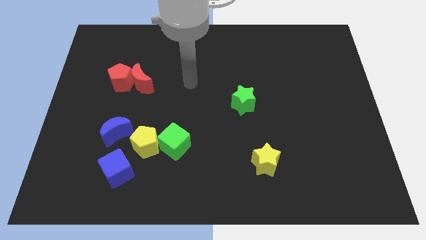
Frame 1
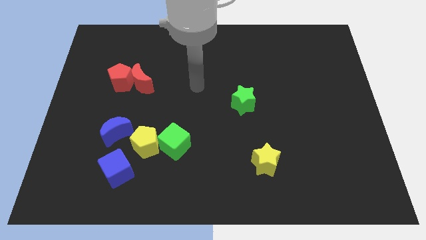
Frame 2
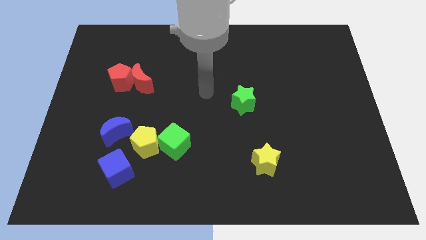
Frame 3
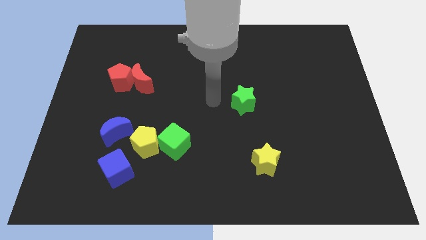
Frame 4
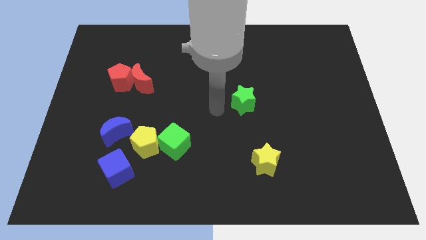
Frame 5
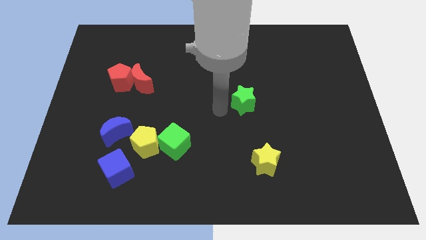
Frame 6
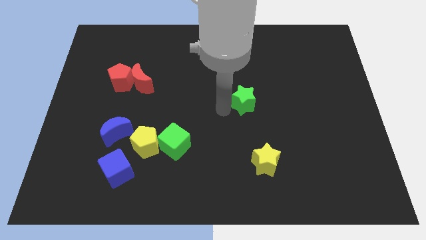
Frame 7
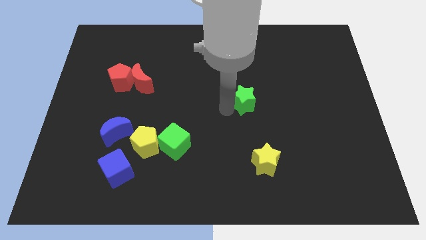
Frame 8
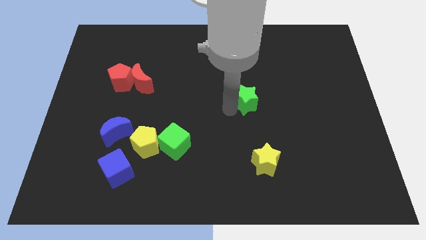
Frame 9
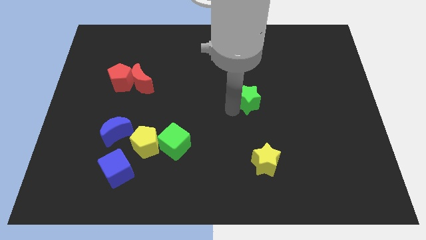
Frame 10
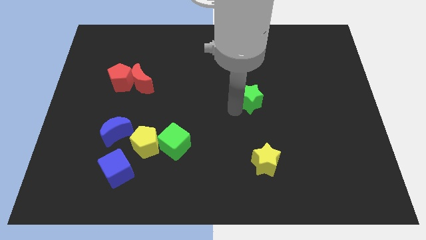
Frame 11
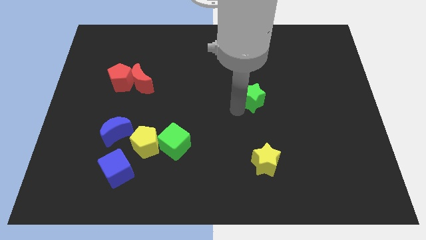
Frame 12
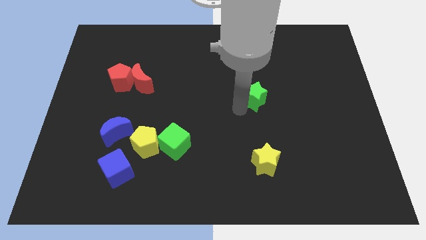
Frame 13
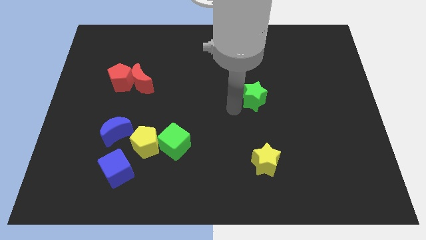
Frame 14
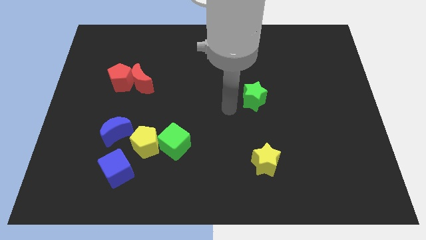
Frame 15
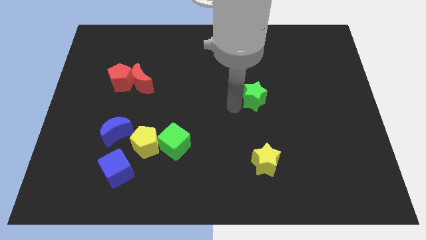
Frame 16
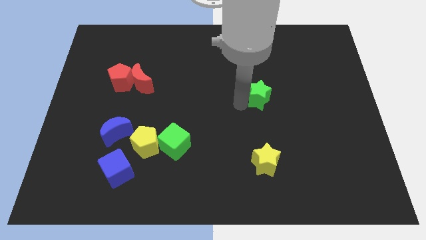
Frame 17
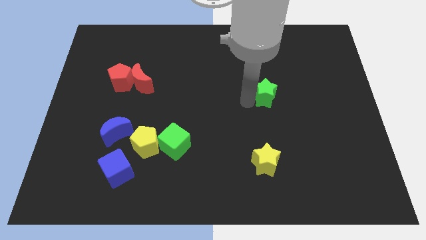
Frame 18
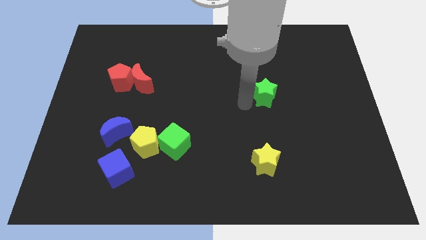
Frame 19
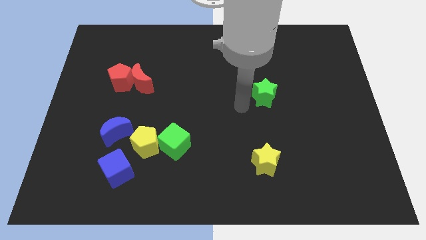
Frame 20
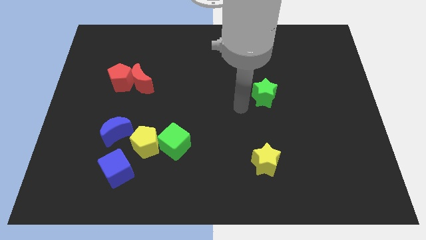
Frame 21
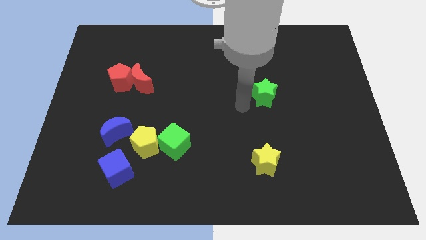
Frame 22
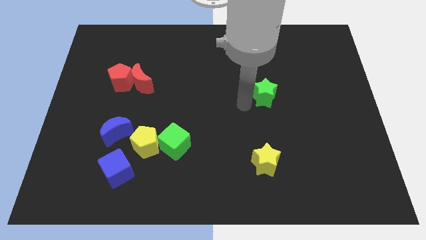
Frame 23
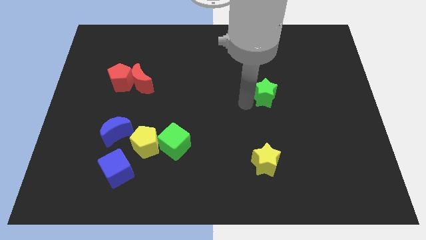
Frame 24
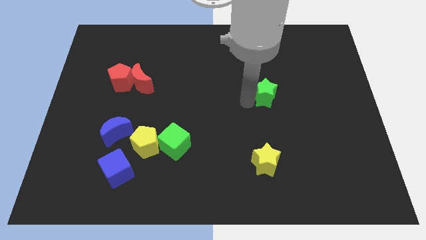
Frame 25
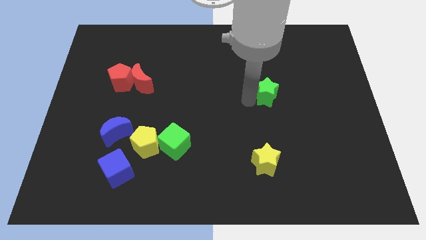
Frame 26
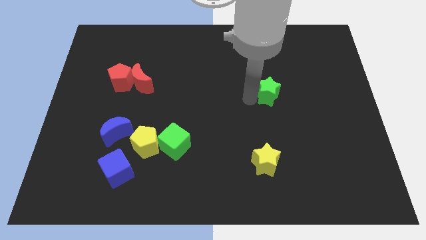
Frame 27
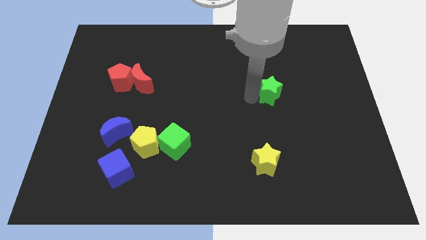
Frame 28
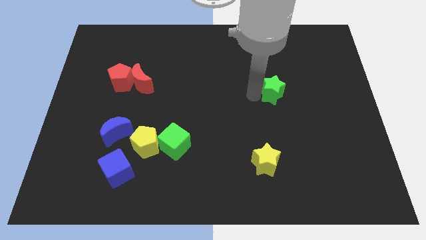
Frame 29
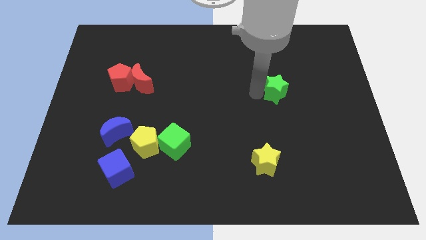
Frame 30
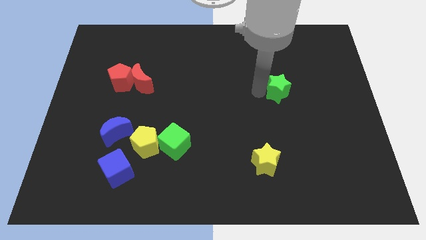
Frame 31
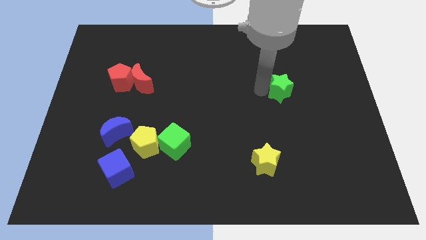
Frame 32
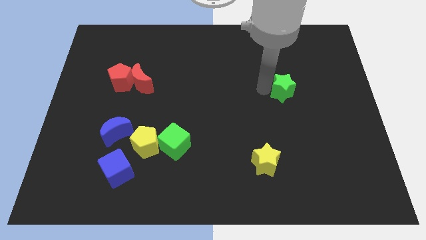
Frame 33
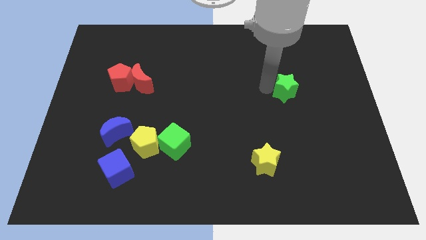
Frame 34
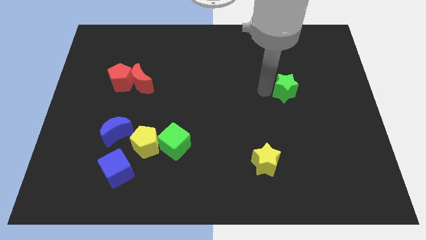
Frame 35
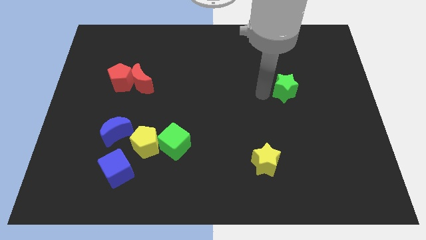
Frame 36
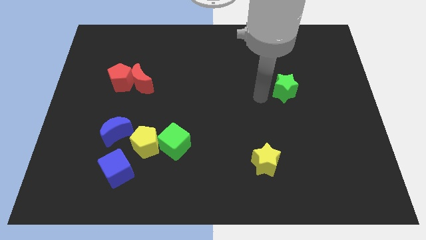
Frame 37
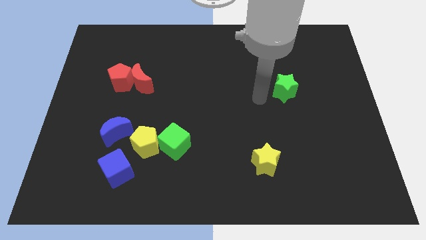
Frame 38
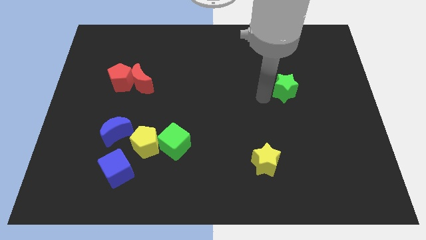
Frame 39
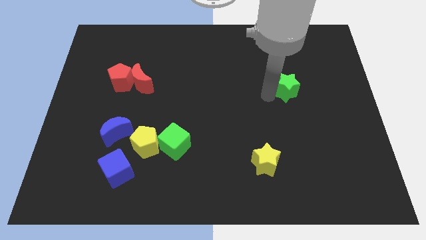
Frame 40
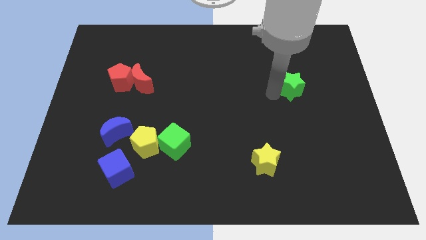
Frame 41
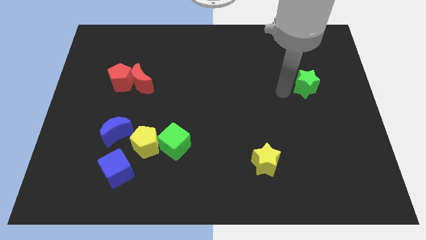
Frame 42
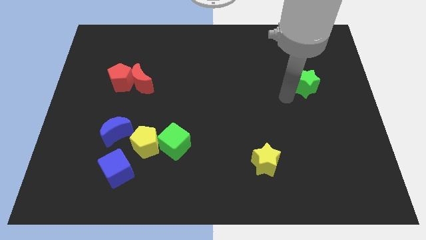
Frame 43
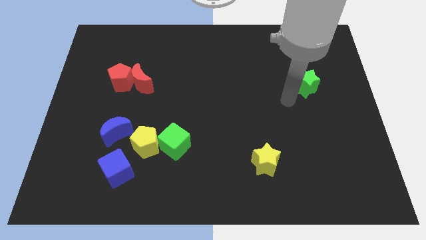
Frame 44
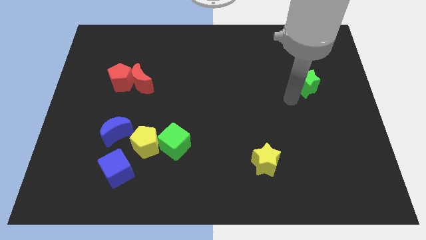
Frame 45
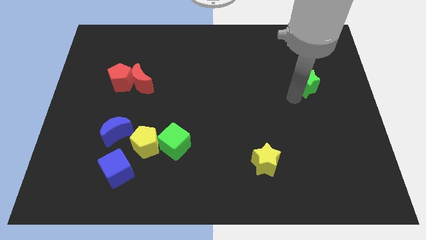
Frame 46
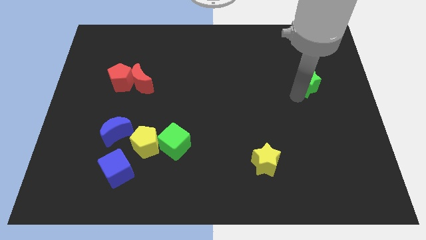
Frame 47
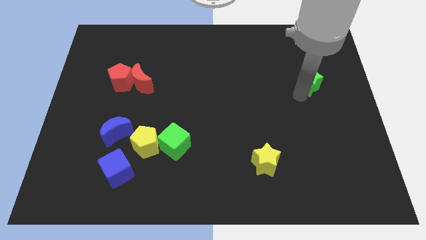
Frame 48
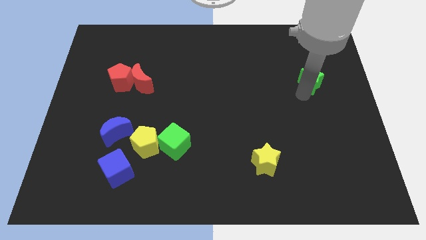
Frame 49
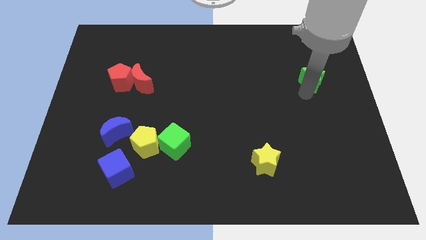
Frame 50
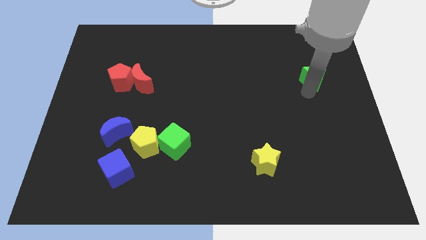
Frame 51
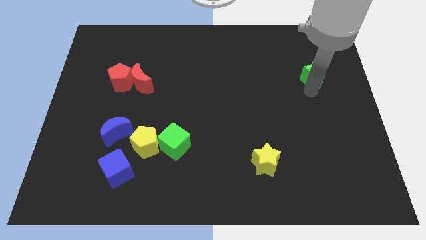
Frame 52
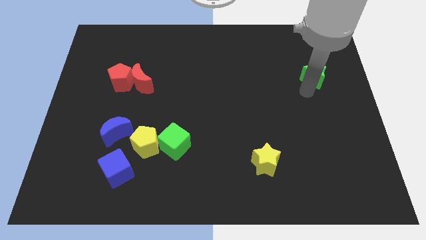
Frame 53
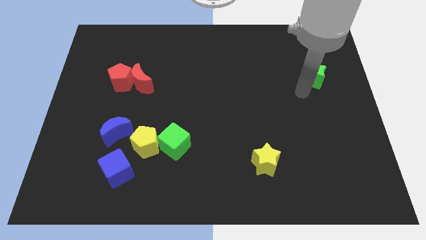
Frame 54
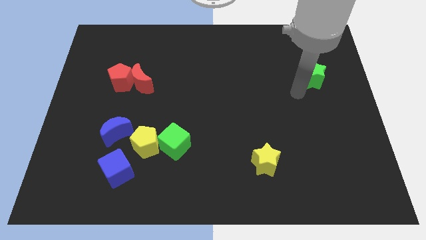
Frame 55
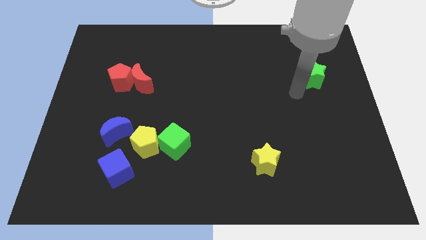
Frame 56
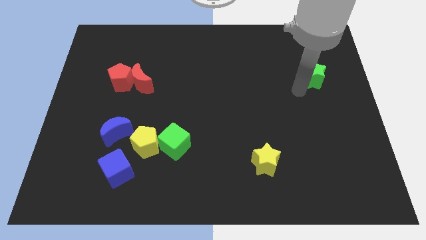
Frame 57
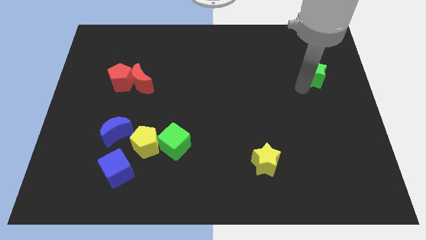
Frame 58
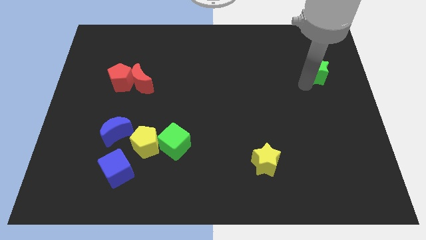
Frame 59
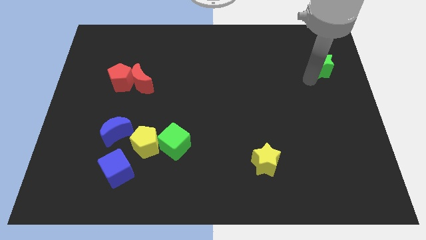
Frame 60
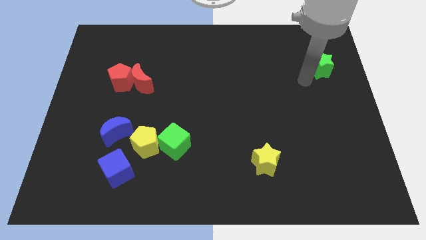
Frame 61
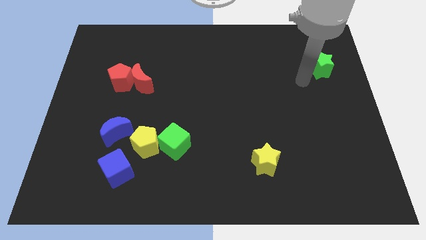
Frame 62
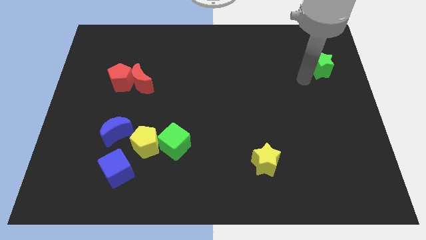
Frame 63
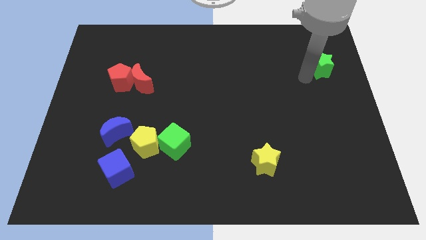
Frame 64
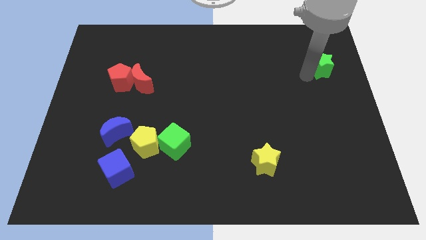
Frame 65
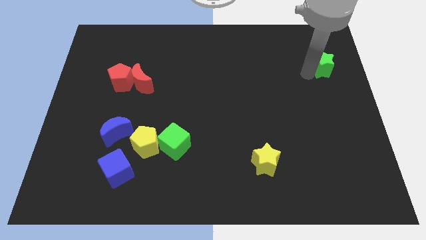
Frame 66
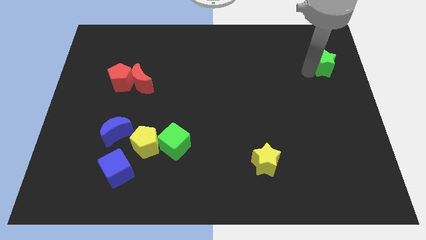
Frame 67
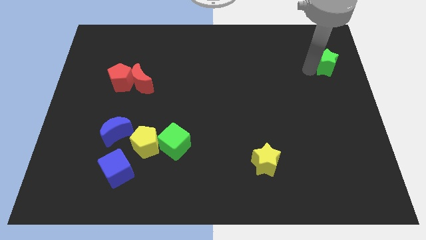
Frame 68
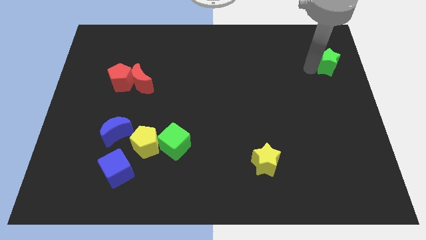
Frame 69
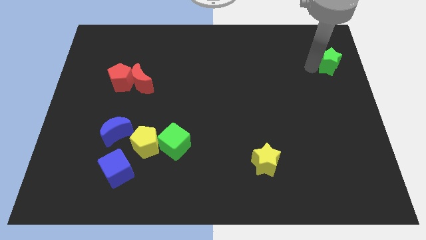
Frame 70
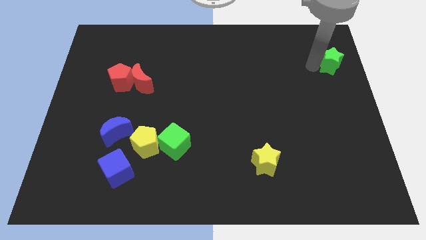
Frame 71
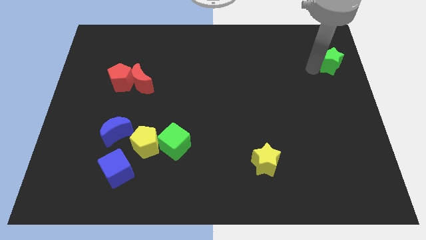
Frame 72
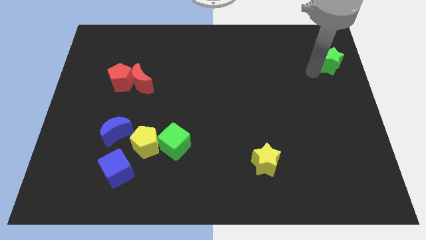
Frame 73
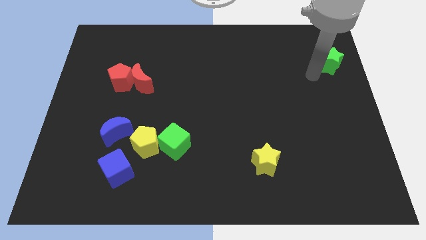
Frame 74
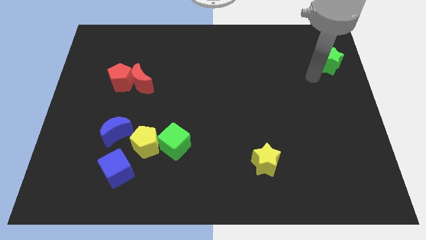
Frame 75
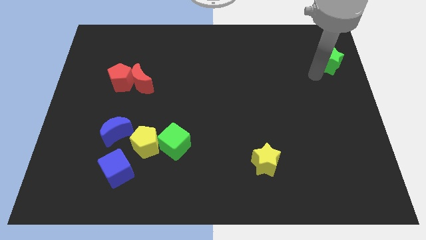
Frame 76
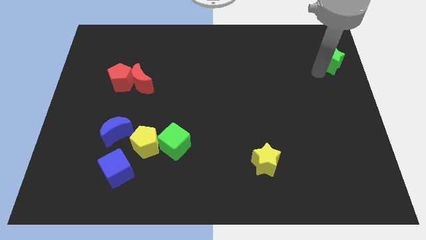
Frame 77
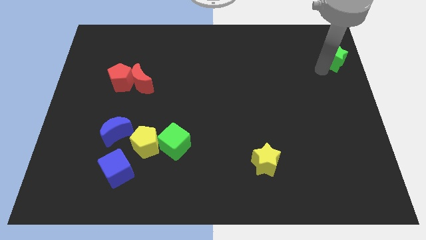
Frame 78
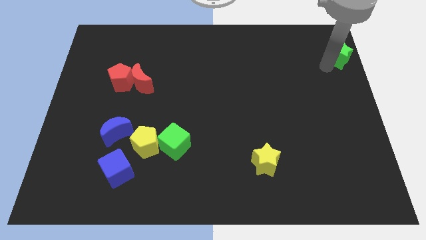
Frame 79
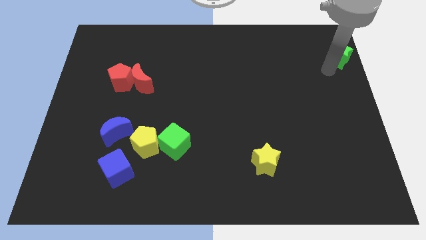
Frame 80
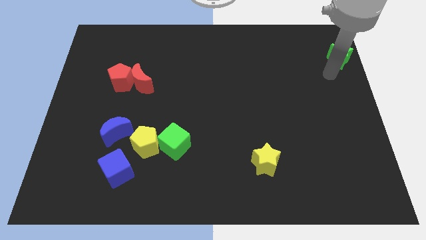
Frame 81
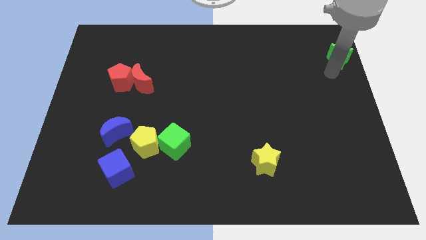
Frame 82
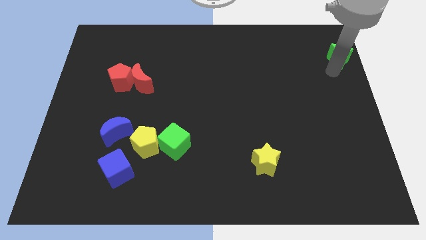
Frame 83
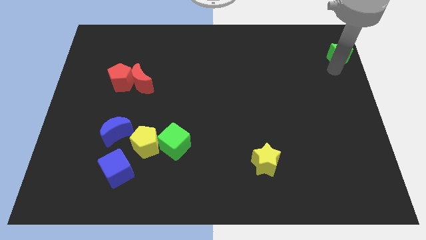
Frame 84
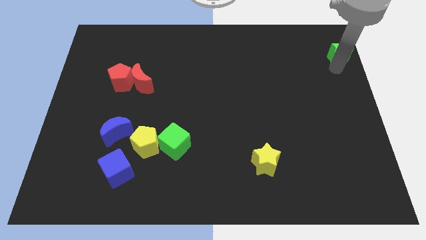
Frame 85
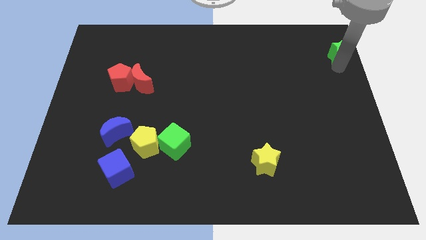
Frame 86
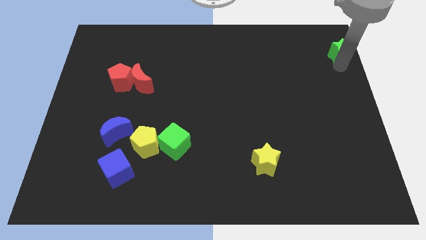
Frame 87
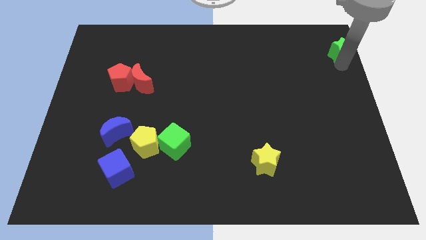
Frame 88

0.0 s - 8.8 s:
put the green star to the top right
